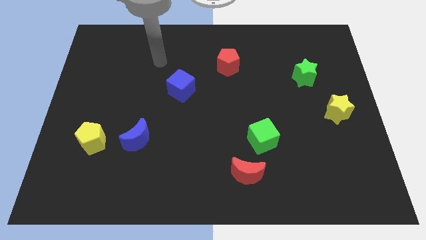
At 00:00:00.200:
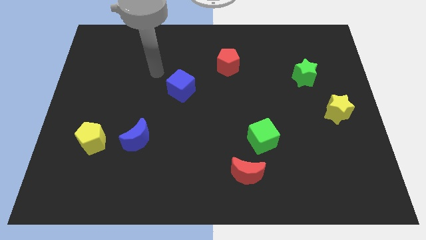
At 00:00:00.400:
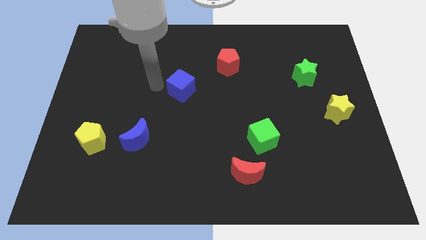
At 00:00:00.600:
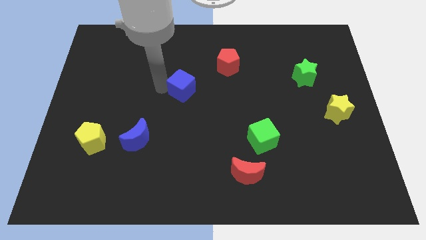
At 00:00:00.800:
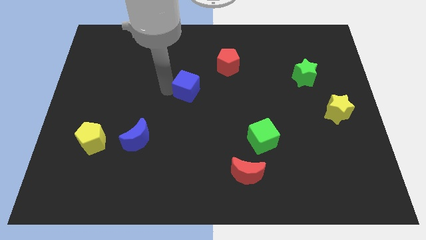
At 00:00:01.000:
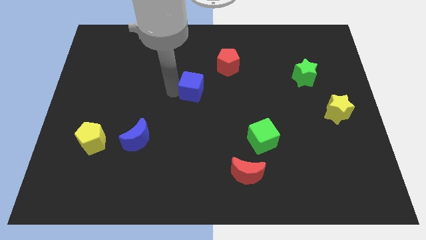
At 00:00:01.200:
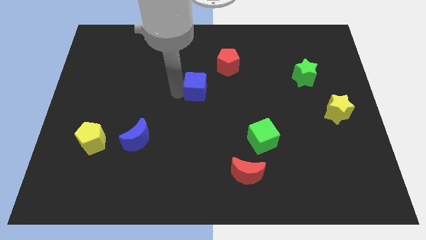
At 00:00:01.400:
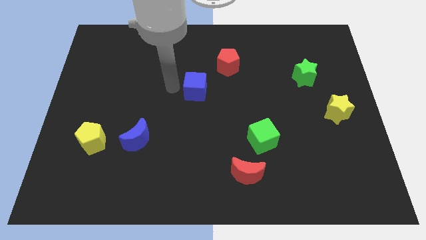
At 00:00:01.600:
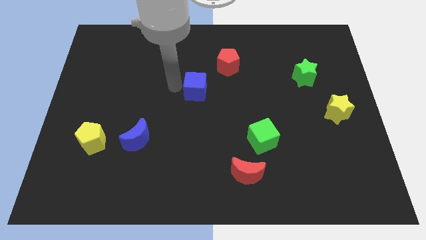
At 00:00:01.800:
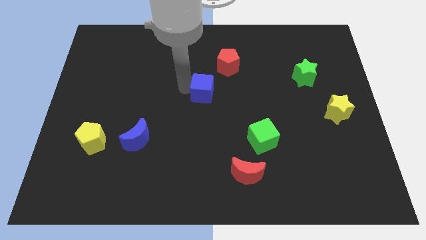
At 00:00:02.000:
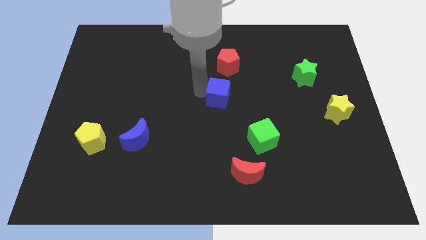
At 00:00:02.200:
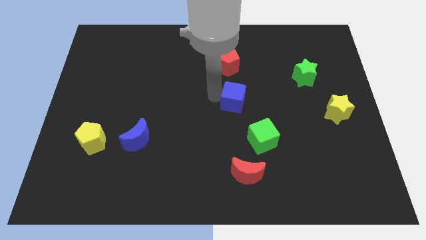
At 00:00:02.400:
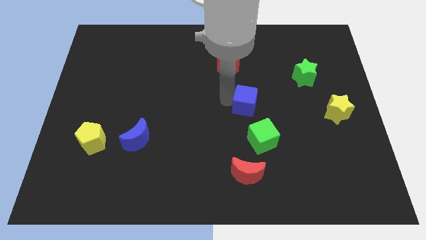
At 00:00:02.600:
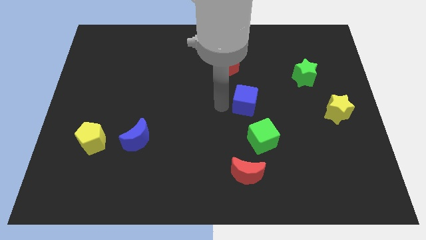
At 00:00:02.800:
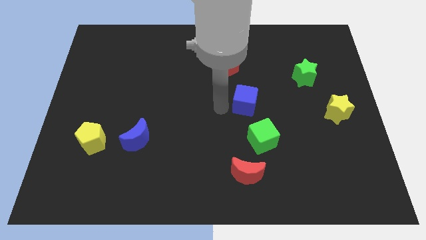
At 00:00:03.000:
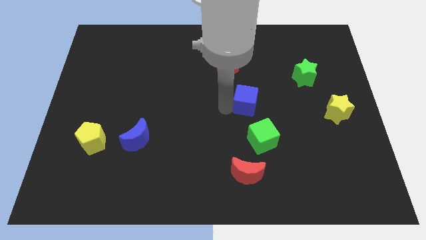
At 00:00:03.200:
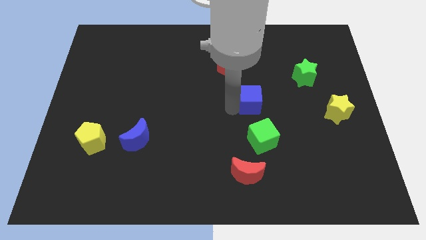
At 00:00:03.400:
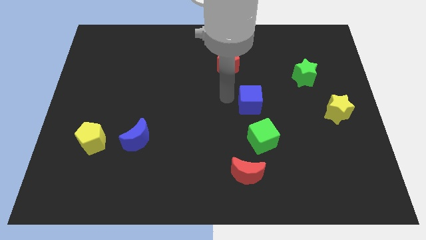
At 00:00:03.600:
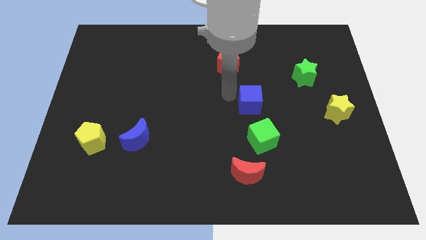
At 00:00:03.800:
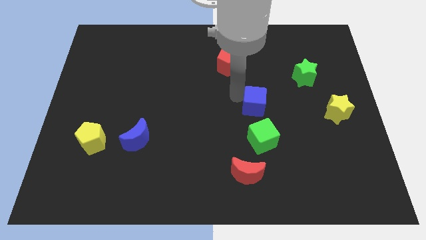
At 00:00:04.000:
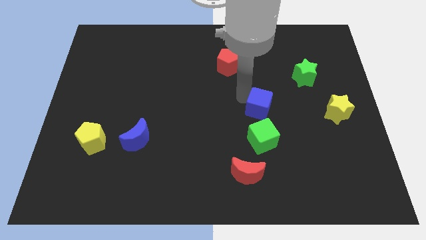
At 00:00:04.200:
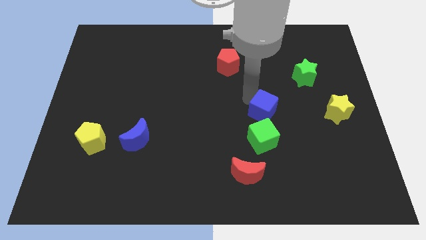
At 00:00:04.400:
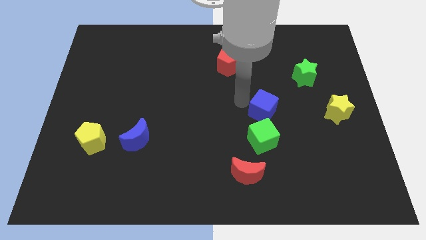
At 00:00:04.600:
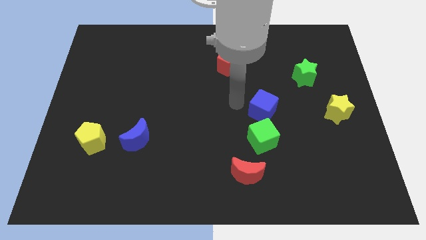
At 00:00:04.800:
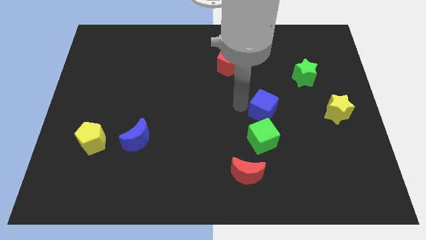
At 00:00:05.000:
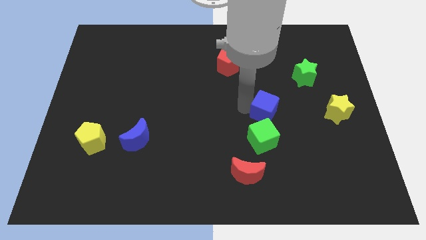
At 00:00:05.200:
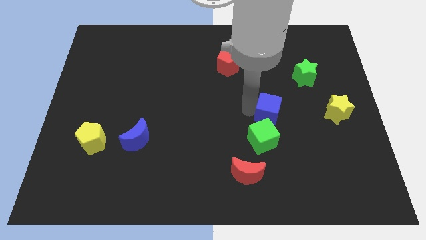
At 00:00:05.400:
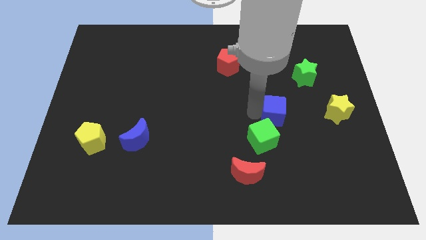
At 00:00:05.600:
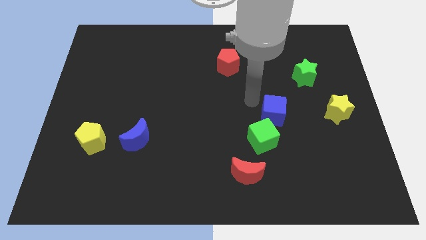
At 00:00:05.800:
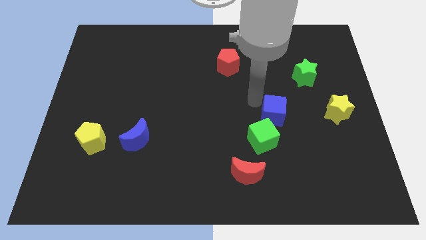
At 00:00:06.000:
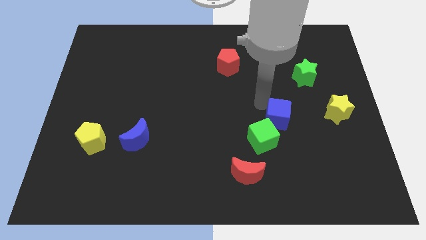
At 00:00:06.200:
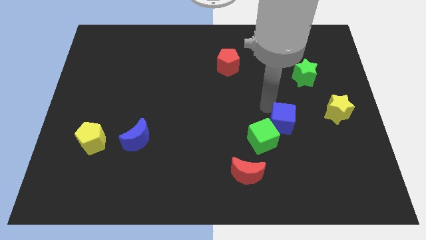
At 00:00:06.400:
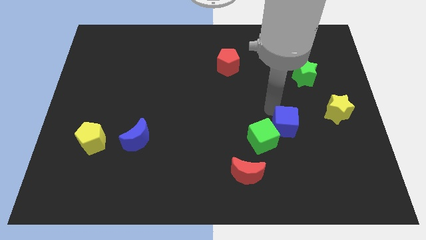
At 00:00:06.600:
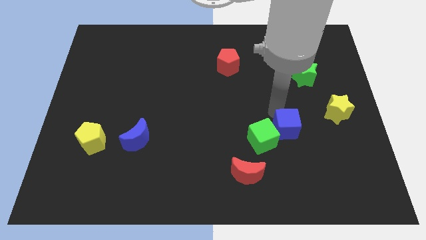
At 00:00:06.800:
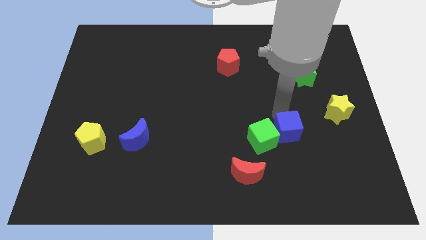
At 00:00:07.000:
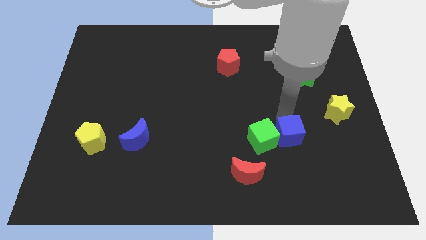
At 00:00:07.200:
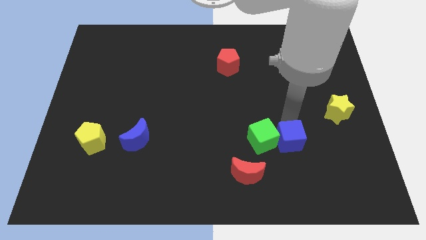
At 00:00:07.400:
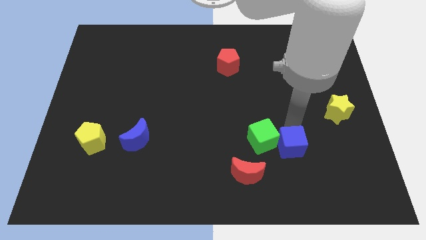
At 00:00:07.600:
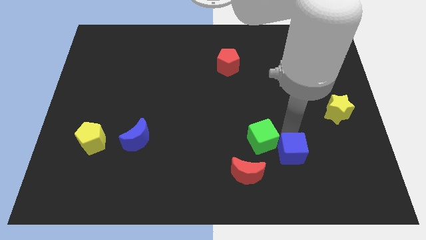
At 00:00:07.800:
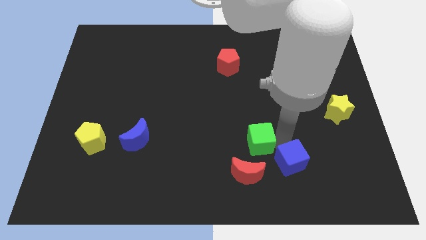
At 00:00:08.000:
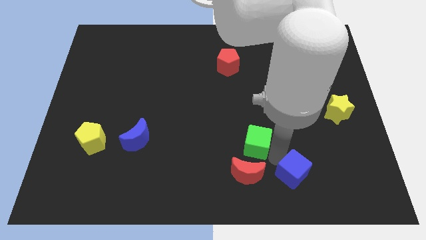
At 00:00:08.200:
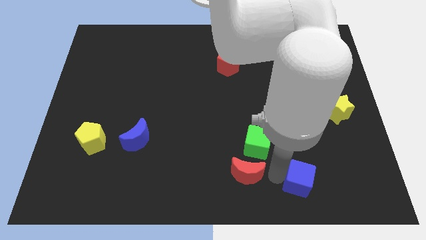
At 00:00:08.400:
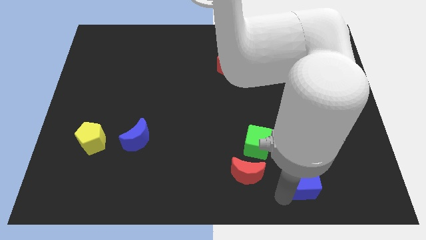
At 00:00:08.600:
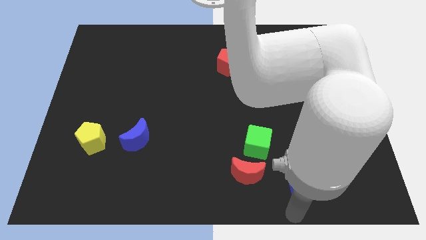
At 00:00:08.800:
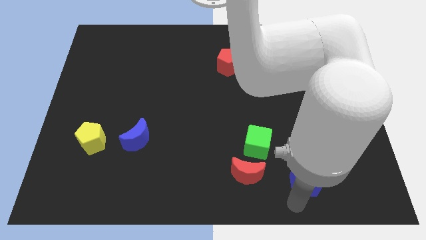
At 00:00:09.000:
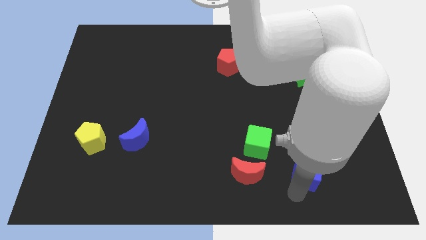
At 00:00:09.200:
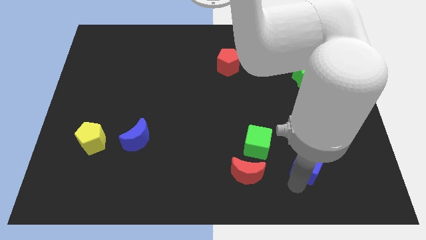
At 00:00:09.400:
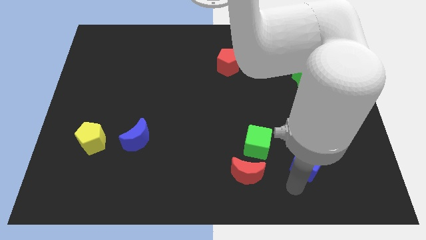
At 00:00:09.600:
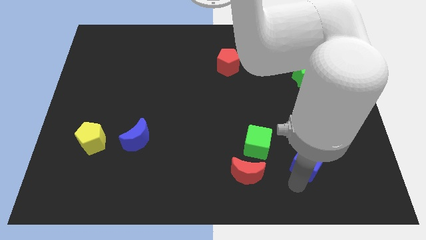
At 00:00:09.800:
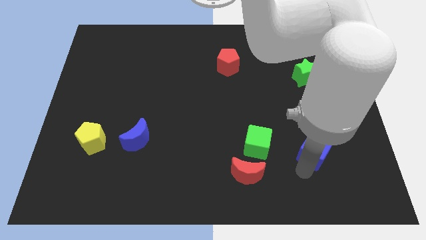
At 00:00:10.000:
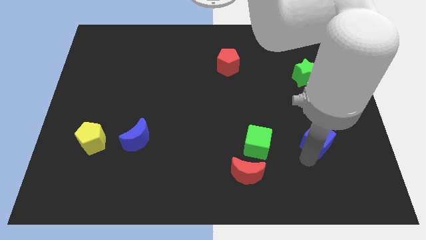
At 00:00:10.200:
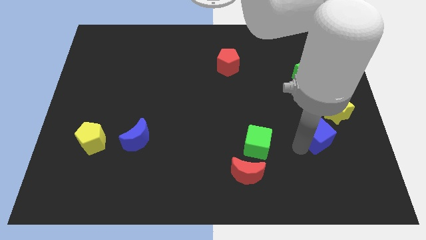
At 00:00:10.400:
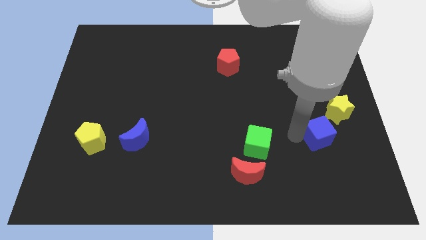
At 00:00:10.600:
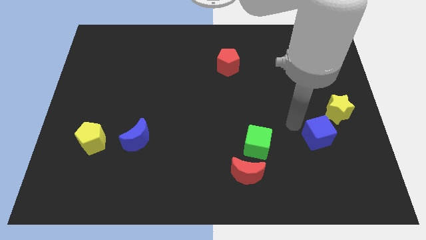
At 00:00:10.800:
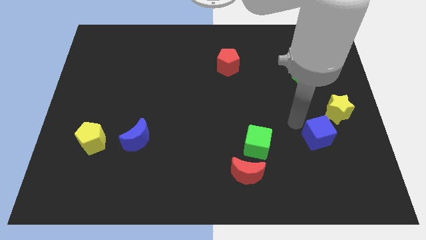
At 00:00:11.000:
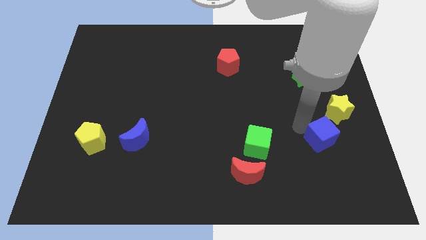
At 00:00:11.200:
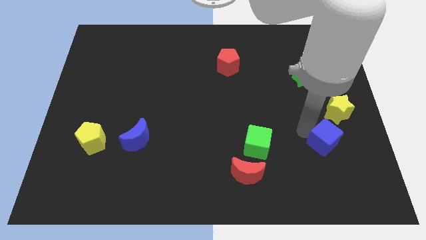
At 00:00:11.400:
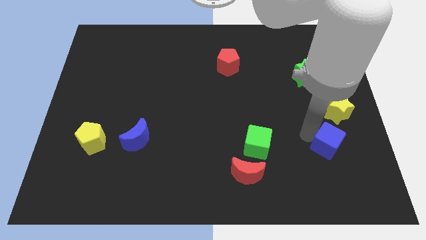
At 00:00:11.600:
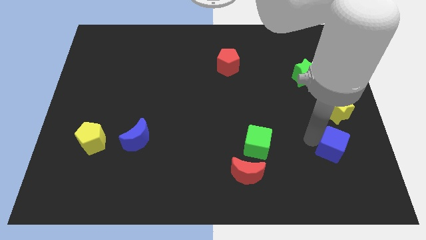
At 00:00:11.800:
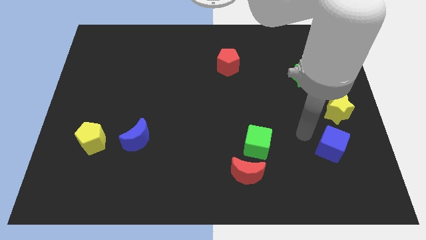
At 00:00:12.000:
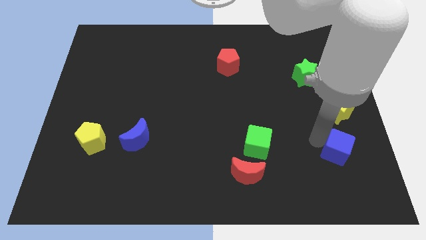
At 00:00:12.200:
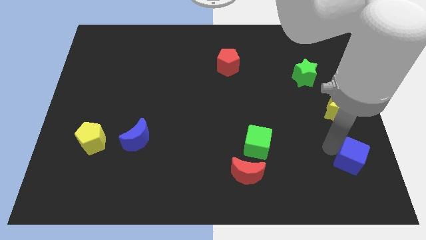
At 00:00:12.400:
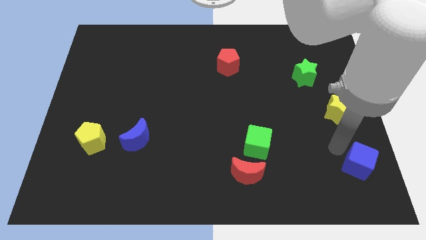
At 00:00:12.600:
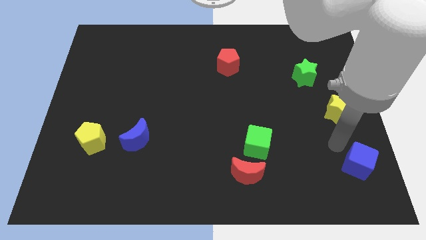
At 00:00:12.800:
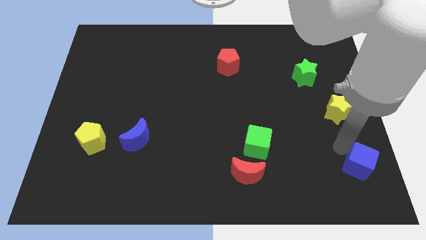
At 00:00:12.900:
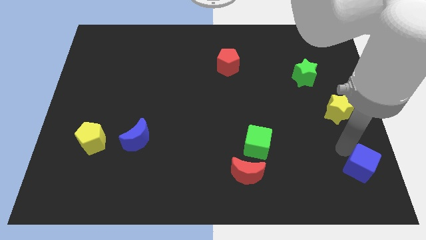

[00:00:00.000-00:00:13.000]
put the blue cube to the bottom right corner
